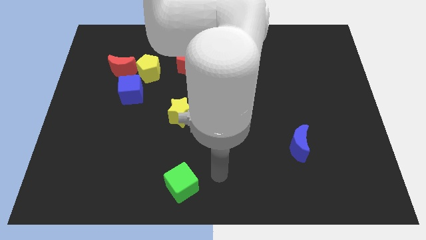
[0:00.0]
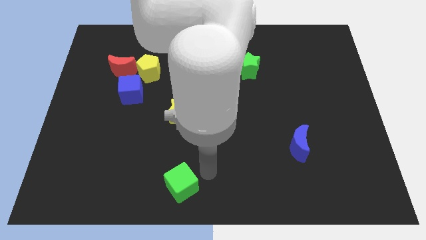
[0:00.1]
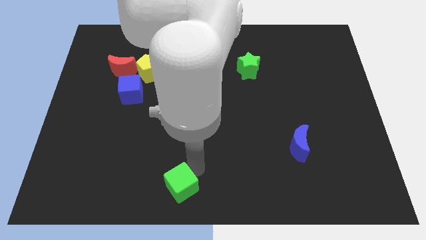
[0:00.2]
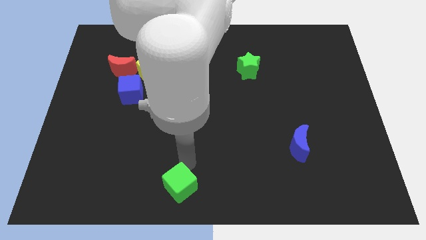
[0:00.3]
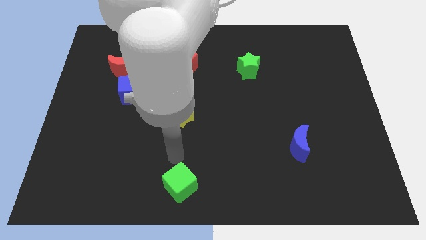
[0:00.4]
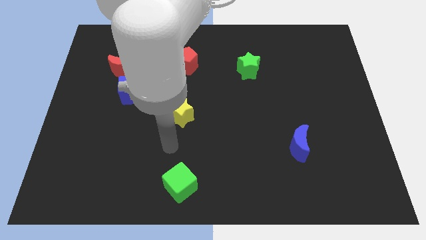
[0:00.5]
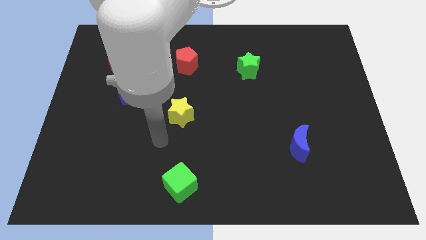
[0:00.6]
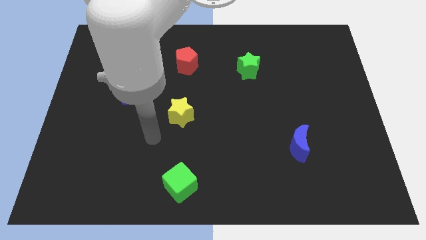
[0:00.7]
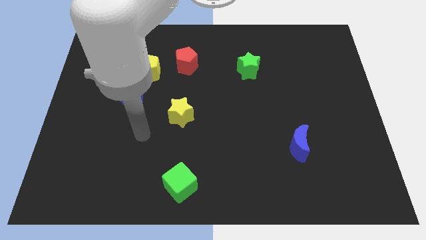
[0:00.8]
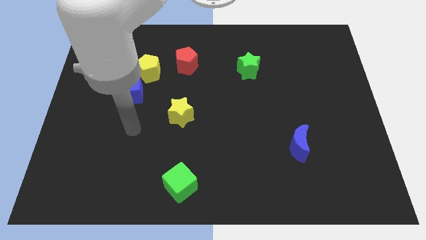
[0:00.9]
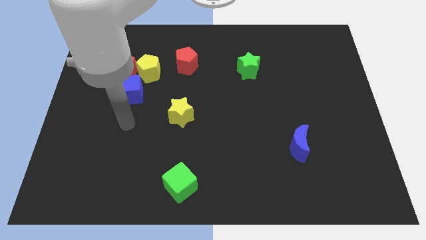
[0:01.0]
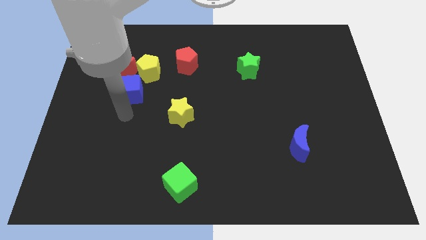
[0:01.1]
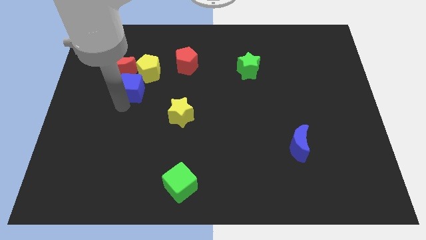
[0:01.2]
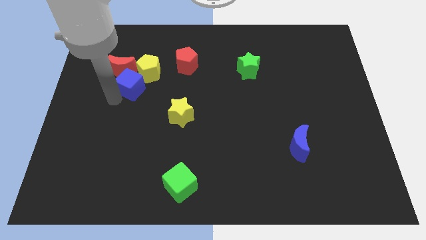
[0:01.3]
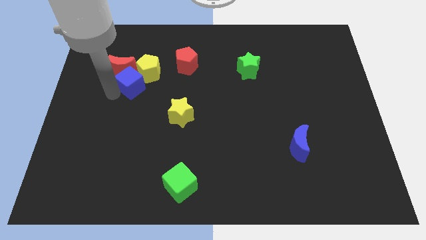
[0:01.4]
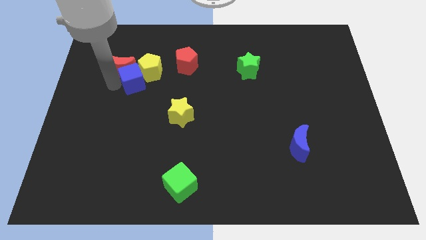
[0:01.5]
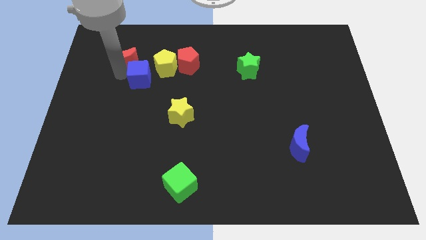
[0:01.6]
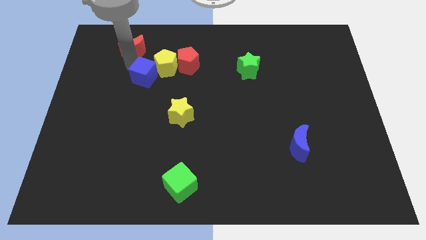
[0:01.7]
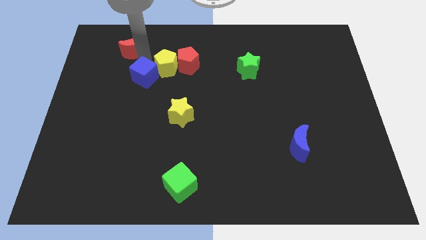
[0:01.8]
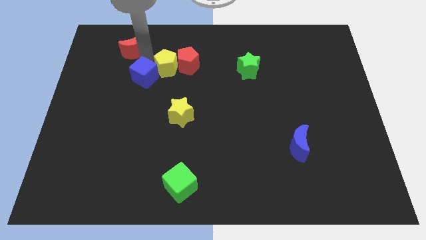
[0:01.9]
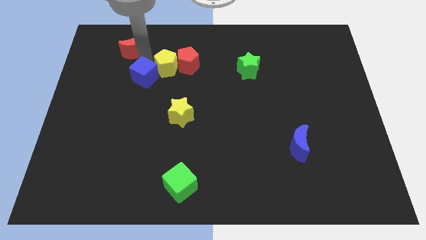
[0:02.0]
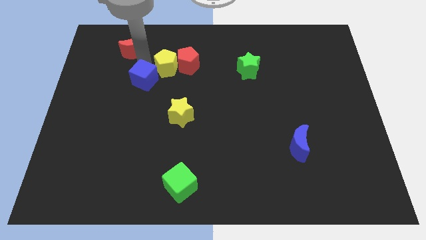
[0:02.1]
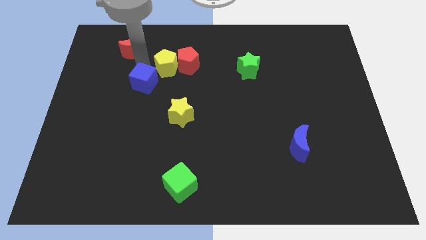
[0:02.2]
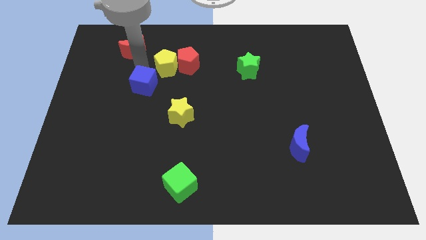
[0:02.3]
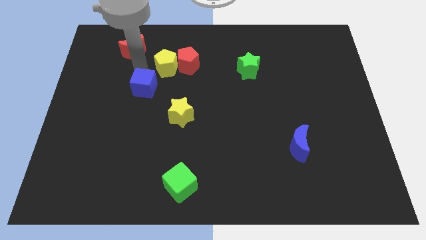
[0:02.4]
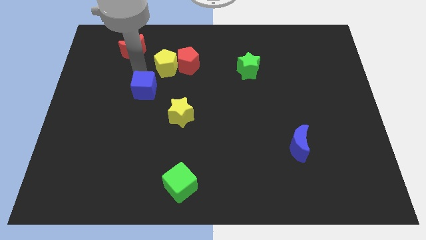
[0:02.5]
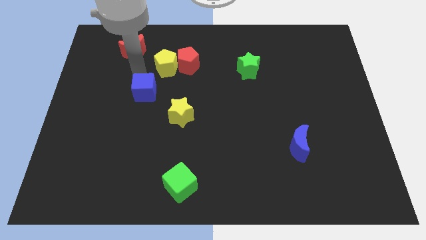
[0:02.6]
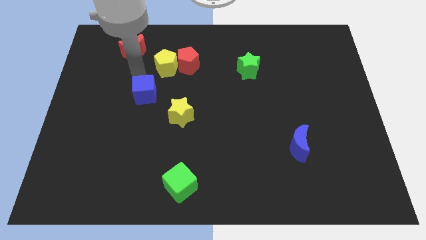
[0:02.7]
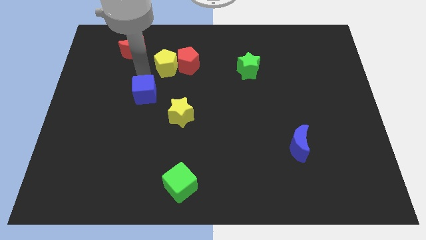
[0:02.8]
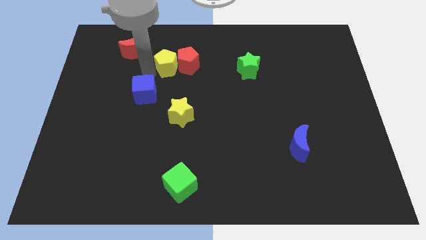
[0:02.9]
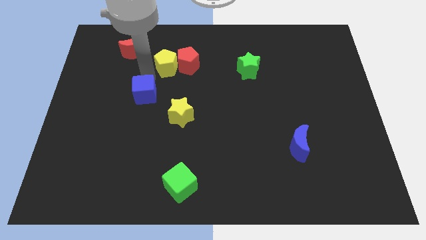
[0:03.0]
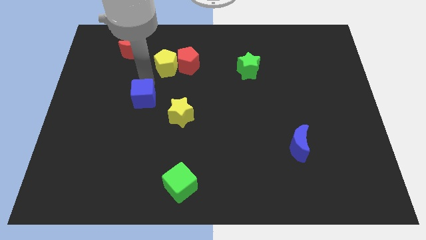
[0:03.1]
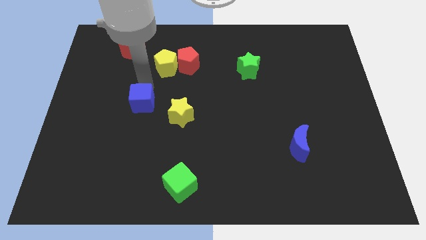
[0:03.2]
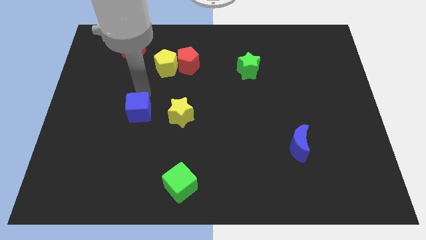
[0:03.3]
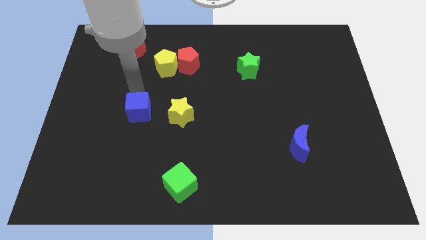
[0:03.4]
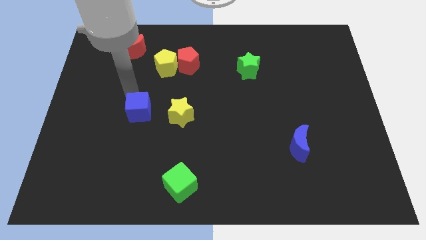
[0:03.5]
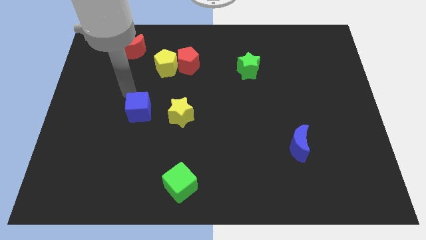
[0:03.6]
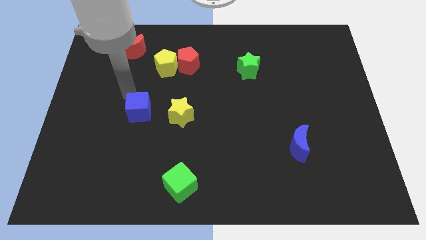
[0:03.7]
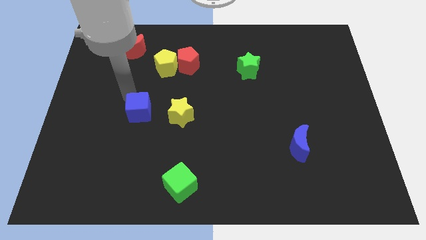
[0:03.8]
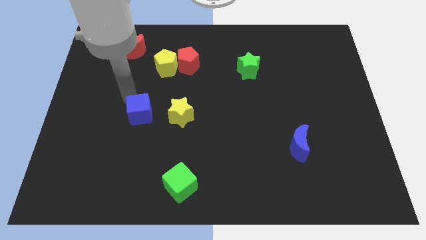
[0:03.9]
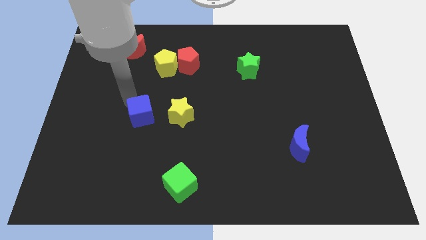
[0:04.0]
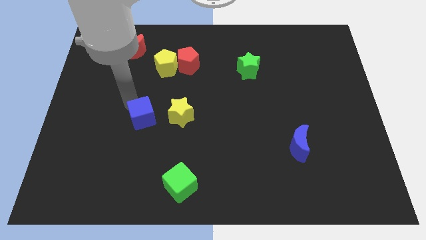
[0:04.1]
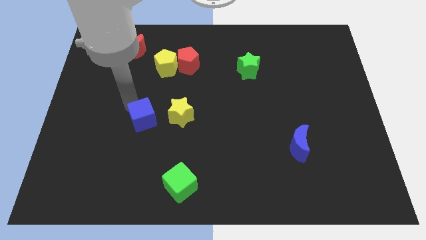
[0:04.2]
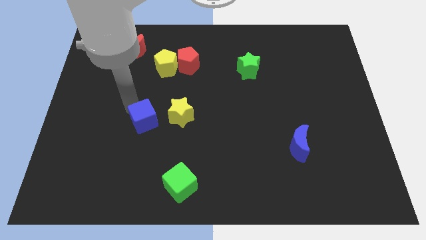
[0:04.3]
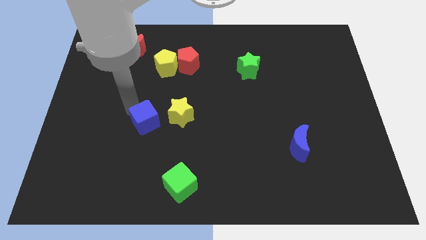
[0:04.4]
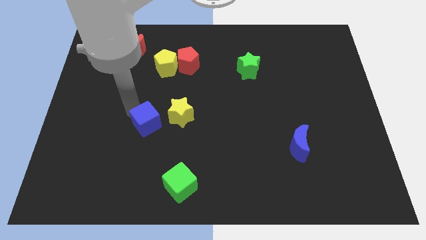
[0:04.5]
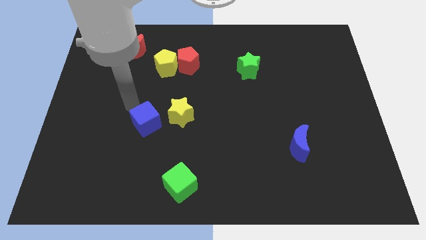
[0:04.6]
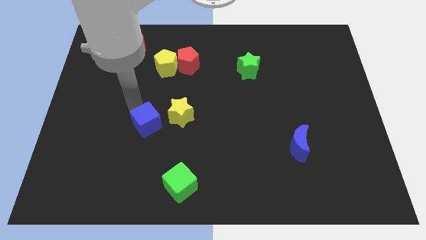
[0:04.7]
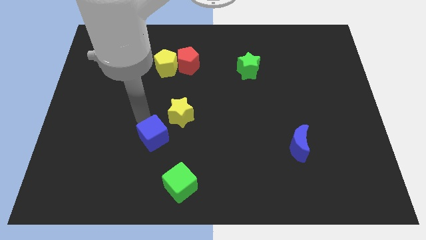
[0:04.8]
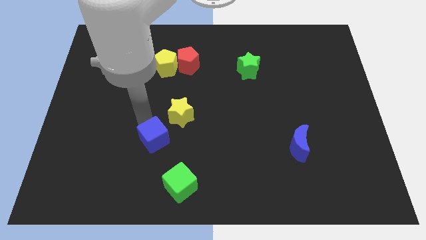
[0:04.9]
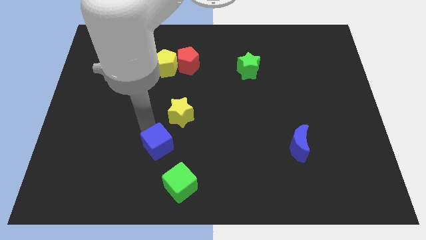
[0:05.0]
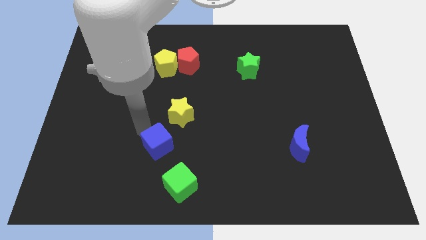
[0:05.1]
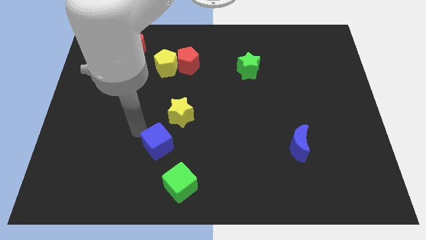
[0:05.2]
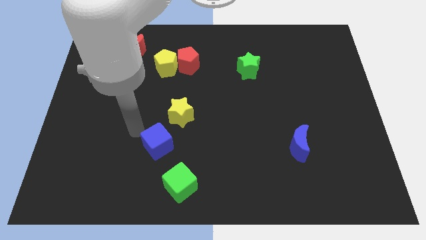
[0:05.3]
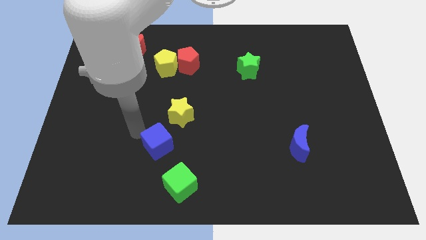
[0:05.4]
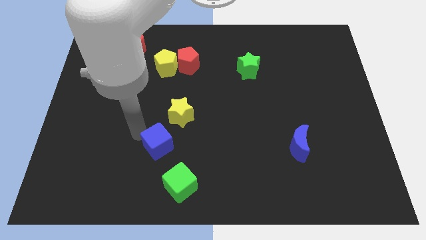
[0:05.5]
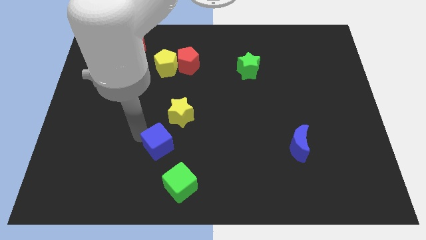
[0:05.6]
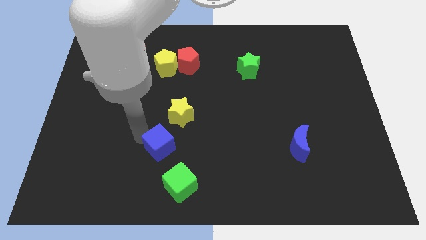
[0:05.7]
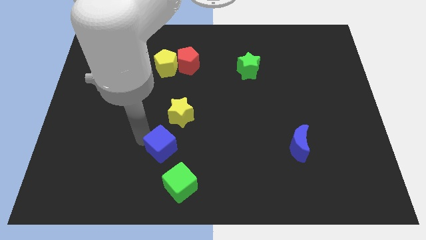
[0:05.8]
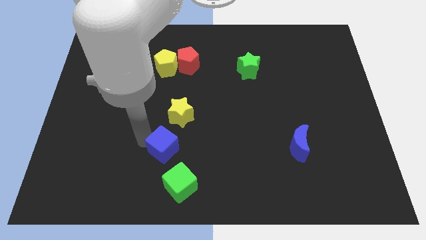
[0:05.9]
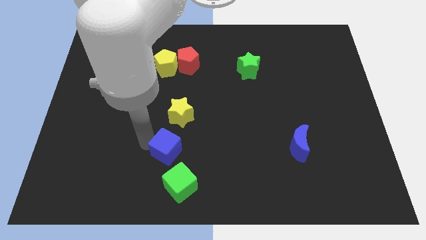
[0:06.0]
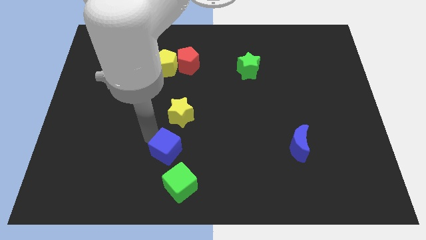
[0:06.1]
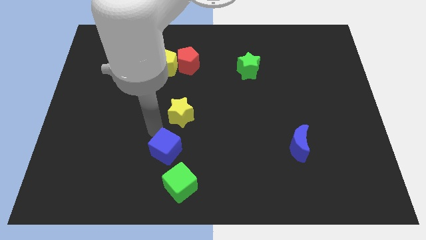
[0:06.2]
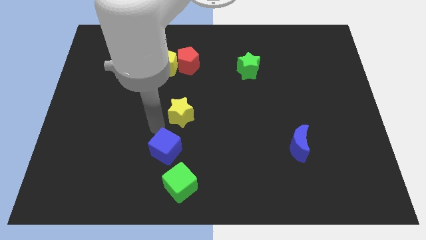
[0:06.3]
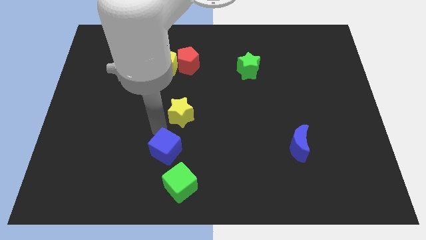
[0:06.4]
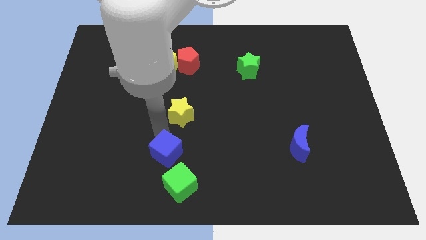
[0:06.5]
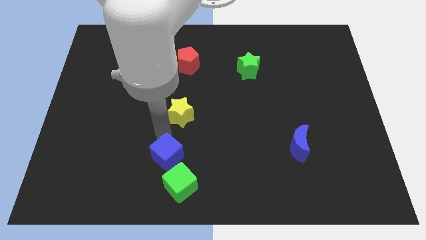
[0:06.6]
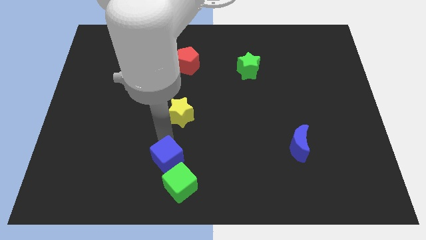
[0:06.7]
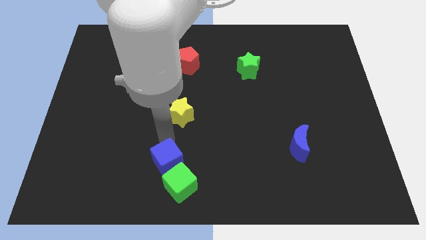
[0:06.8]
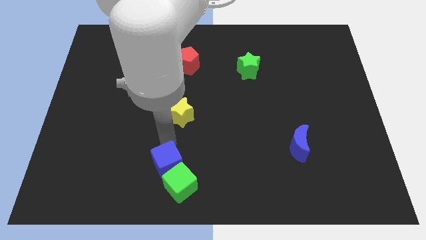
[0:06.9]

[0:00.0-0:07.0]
push the blue cube towards the green cube
